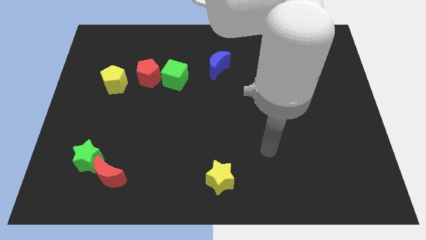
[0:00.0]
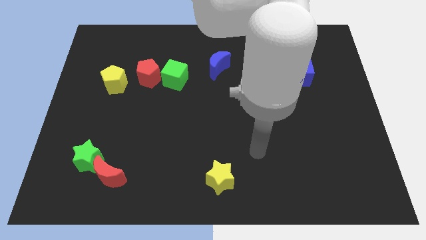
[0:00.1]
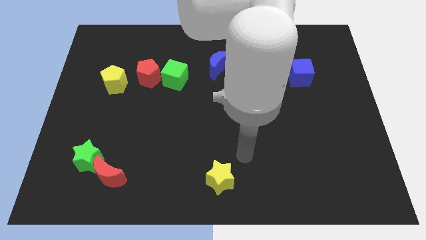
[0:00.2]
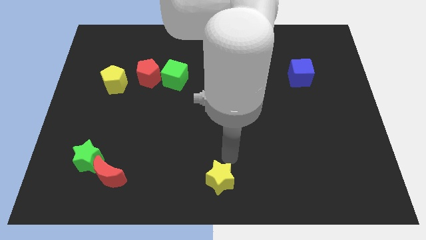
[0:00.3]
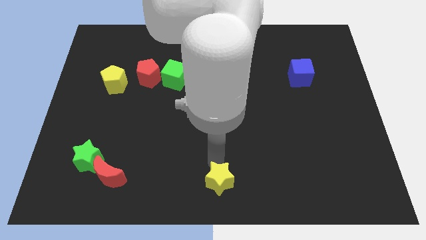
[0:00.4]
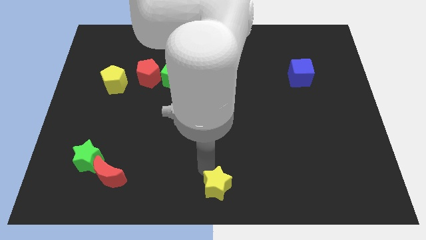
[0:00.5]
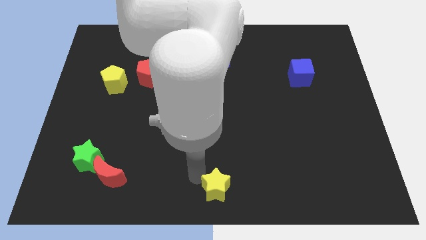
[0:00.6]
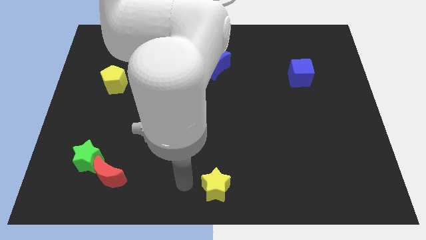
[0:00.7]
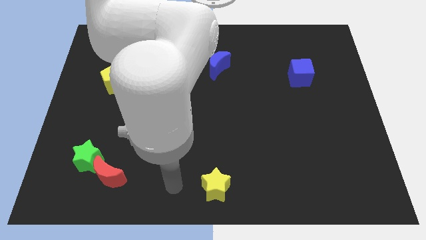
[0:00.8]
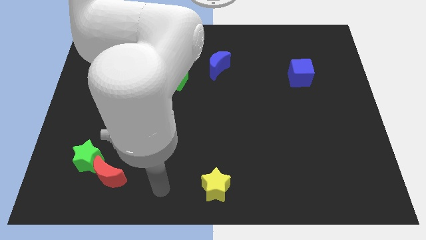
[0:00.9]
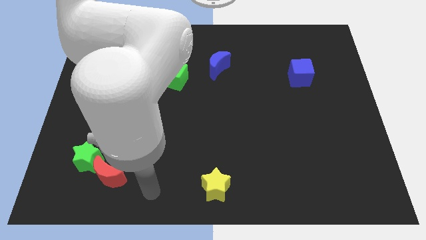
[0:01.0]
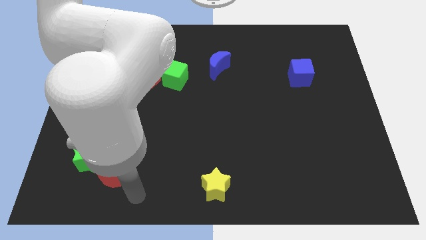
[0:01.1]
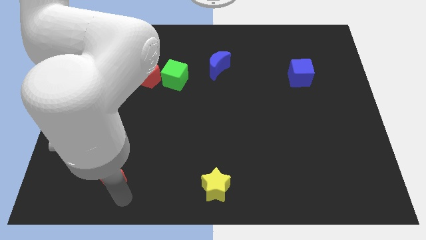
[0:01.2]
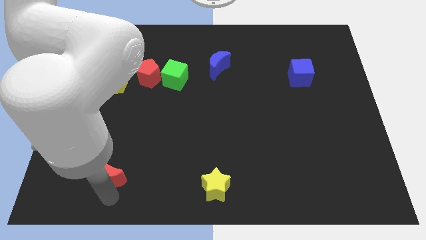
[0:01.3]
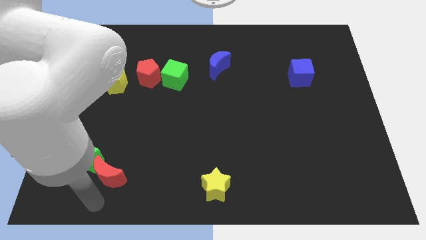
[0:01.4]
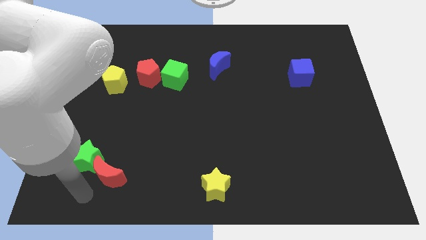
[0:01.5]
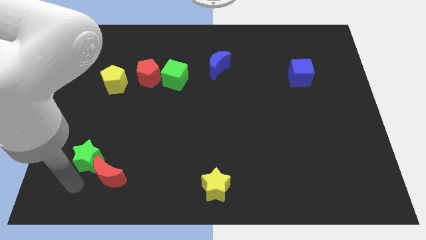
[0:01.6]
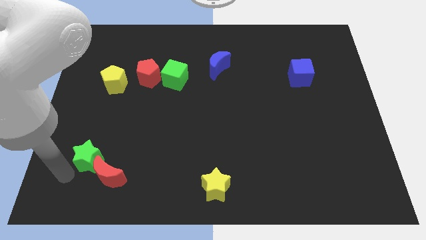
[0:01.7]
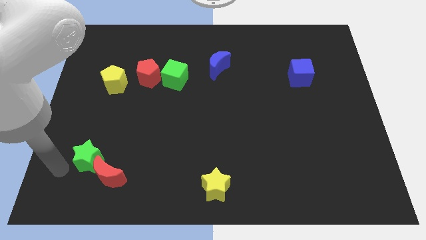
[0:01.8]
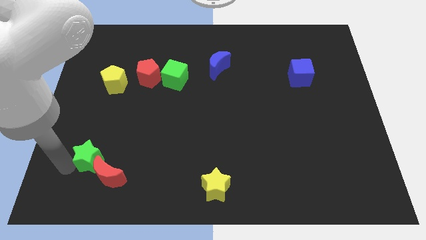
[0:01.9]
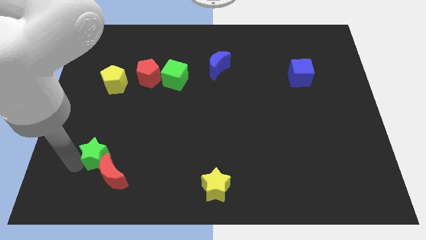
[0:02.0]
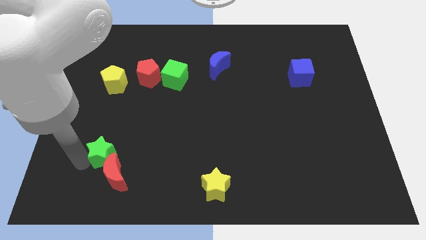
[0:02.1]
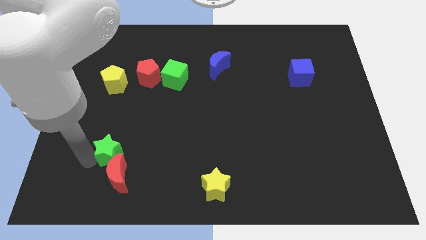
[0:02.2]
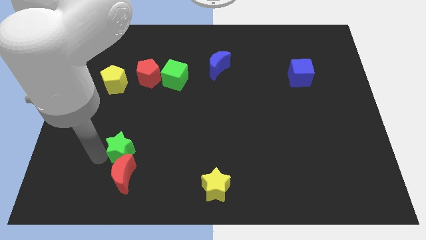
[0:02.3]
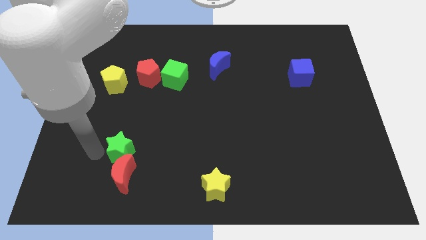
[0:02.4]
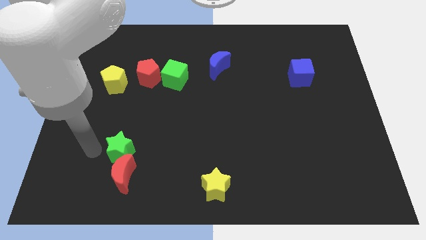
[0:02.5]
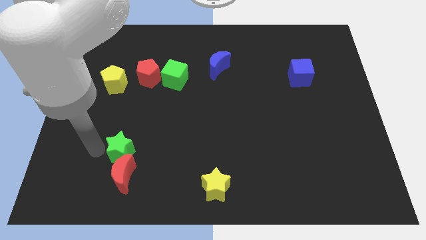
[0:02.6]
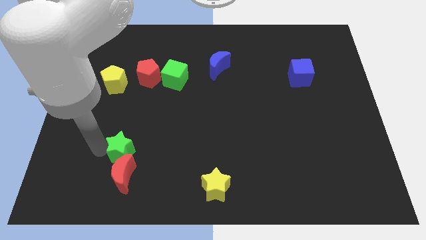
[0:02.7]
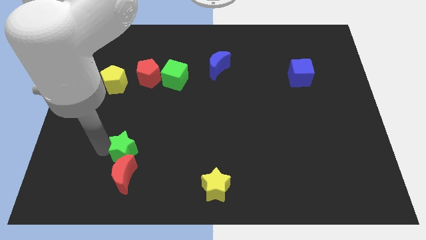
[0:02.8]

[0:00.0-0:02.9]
slide the green star to the right a little

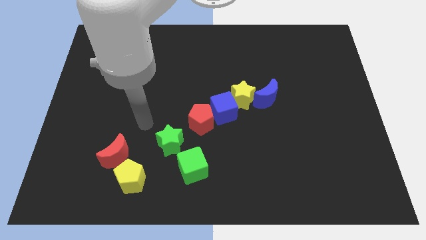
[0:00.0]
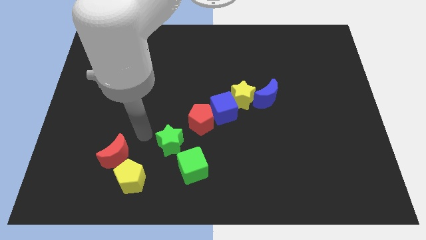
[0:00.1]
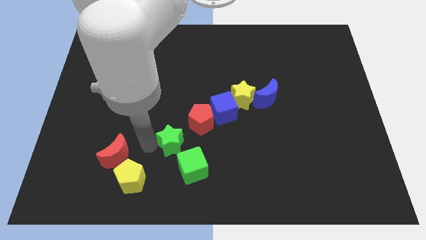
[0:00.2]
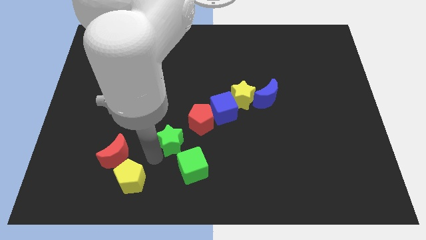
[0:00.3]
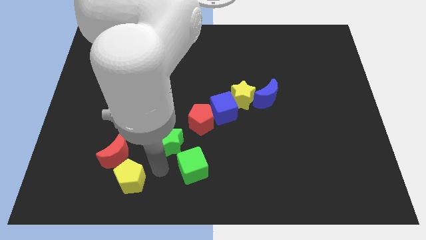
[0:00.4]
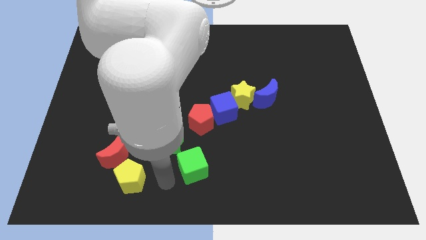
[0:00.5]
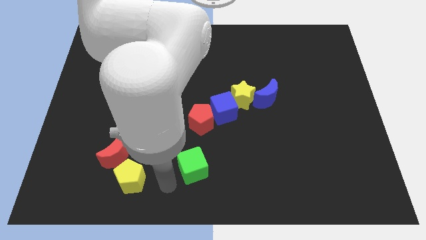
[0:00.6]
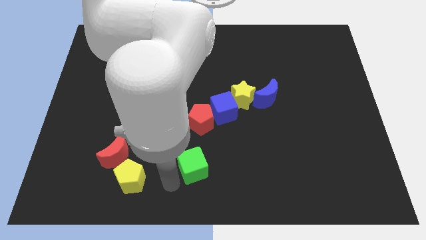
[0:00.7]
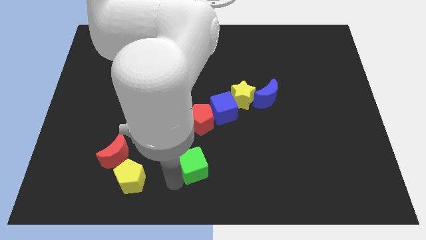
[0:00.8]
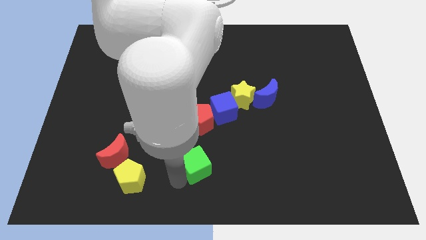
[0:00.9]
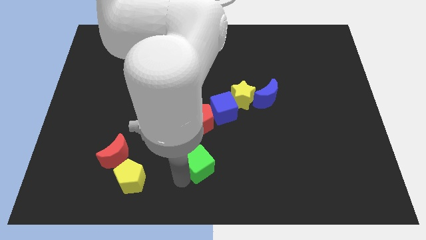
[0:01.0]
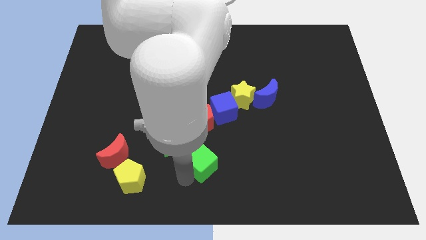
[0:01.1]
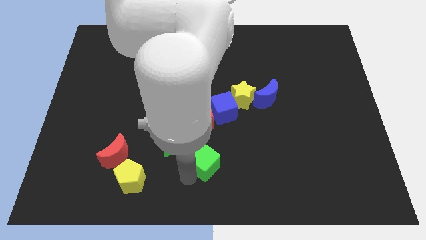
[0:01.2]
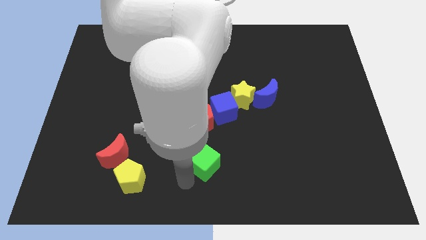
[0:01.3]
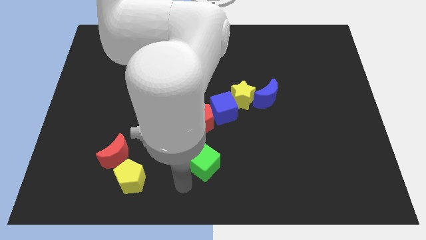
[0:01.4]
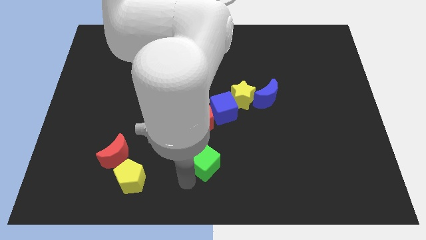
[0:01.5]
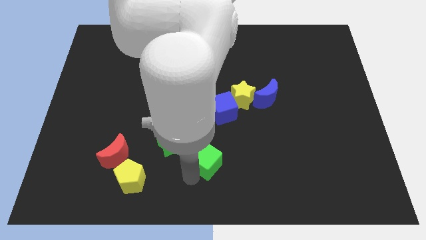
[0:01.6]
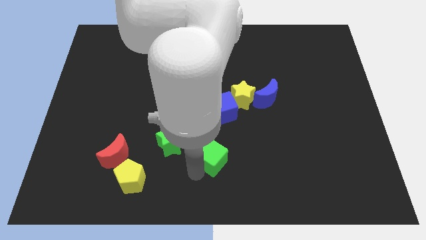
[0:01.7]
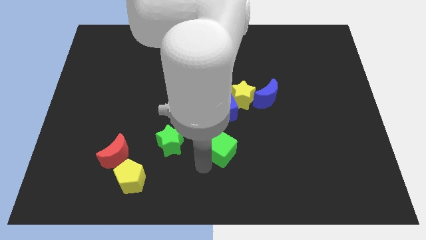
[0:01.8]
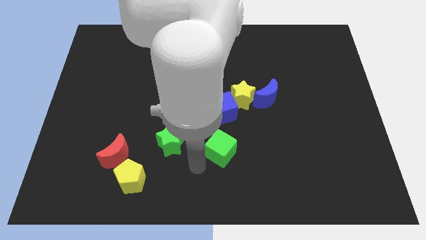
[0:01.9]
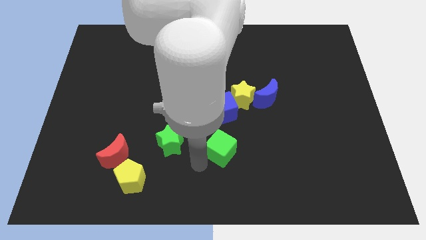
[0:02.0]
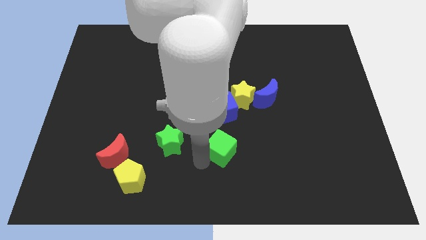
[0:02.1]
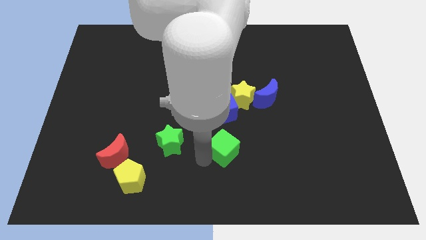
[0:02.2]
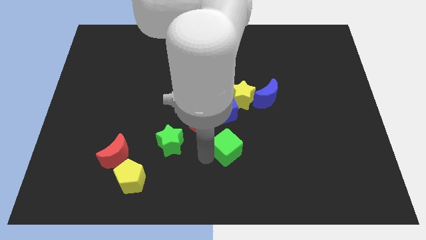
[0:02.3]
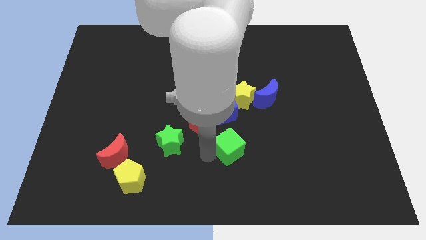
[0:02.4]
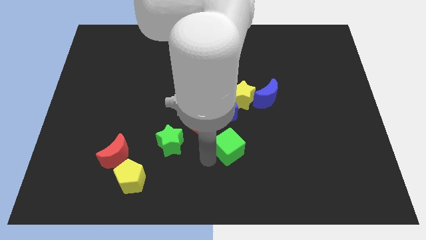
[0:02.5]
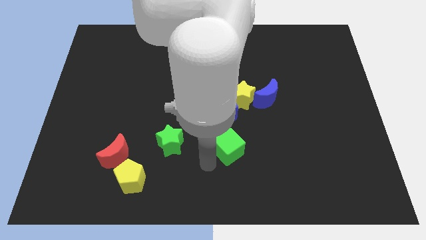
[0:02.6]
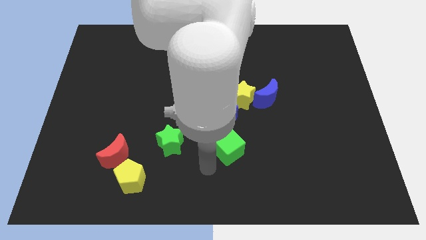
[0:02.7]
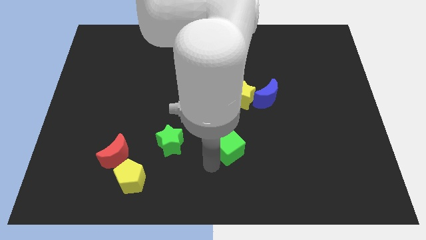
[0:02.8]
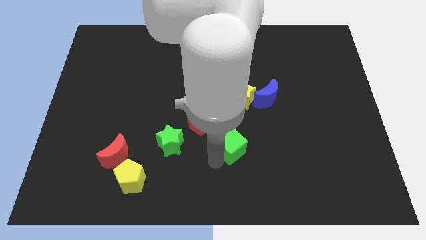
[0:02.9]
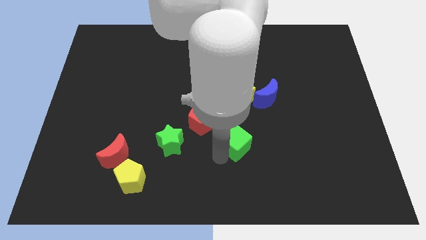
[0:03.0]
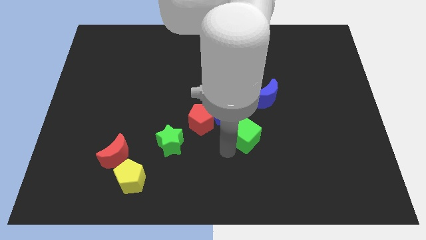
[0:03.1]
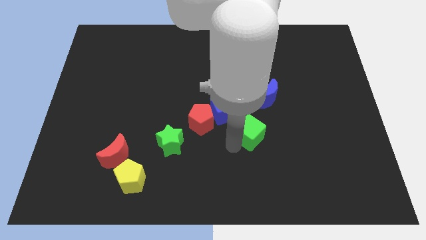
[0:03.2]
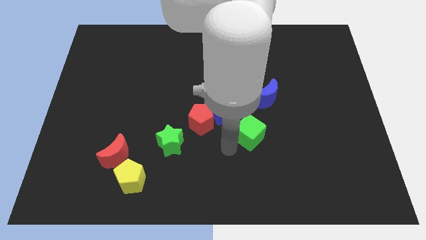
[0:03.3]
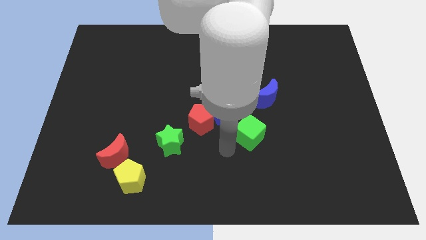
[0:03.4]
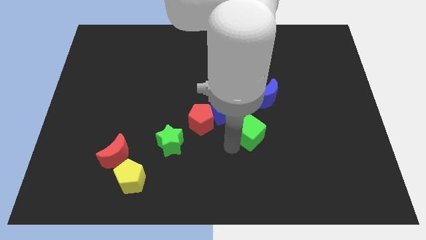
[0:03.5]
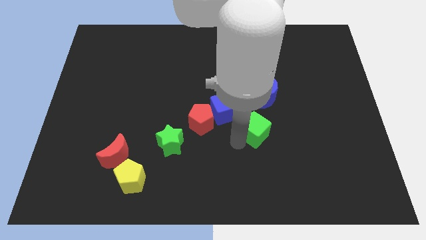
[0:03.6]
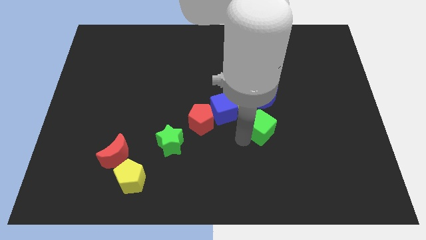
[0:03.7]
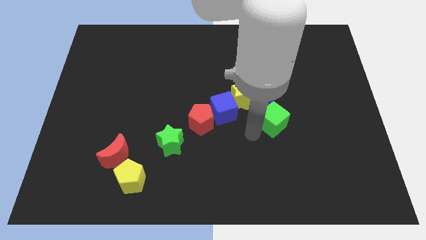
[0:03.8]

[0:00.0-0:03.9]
slide the green cube upwards and right

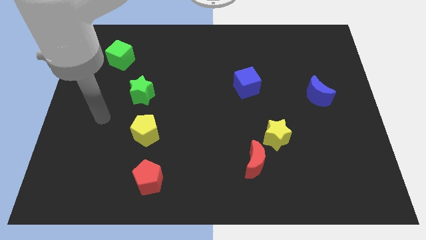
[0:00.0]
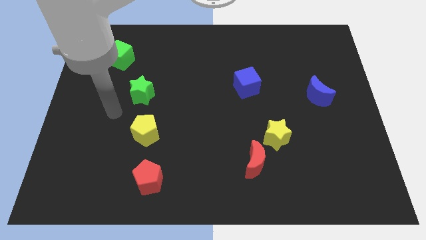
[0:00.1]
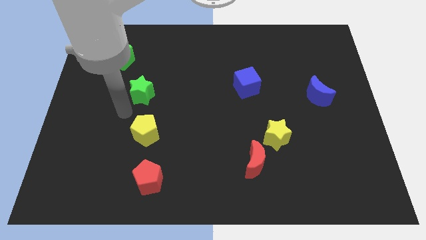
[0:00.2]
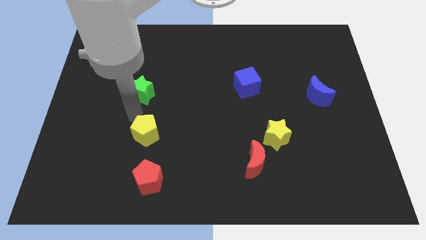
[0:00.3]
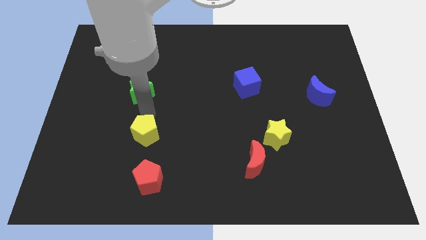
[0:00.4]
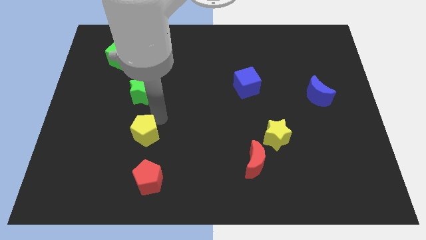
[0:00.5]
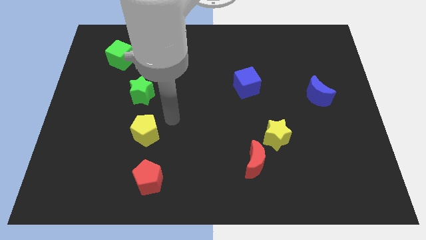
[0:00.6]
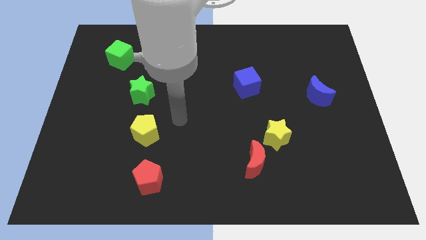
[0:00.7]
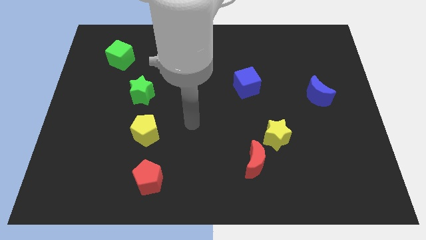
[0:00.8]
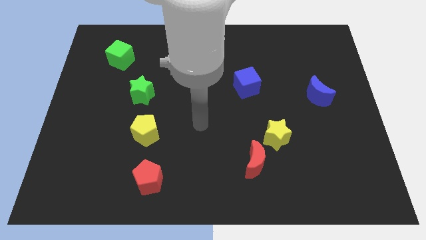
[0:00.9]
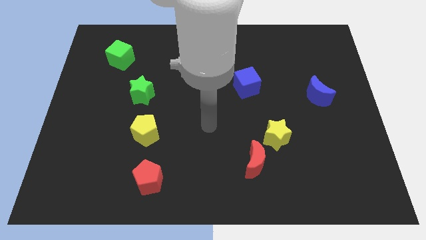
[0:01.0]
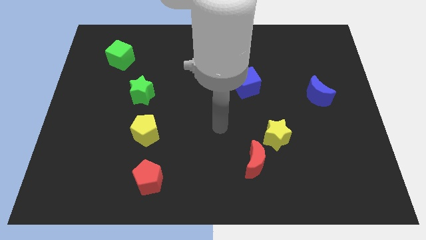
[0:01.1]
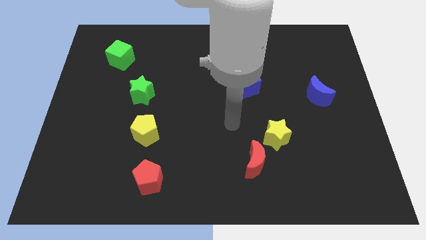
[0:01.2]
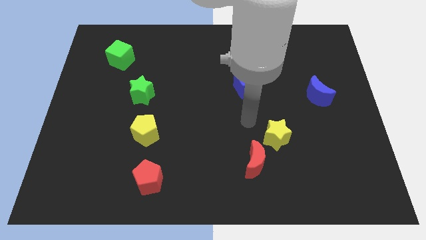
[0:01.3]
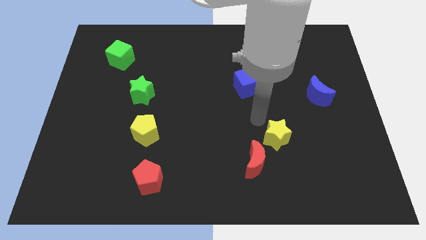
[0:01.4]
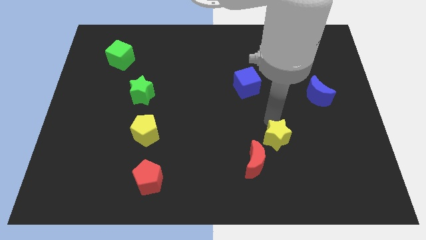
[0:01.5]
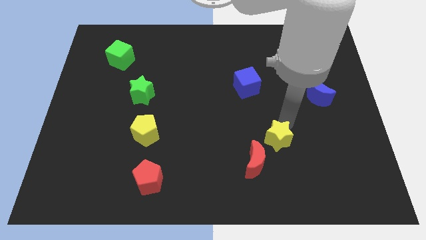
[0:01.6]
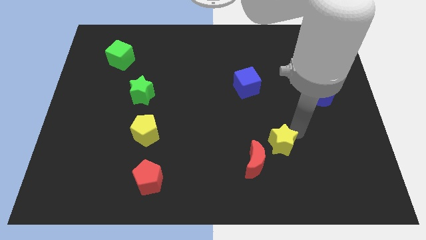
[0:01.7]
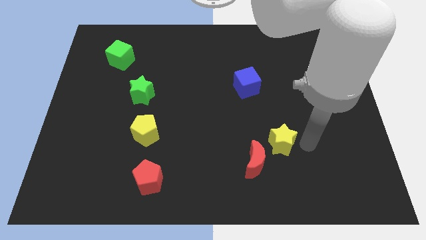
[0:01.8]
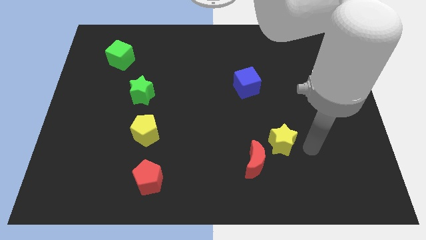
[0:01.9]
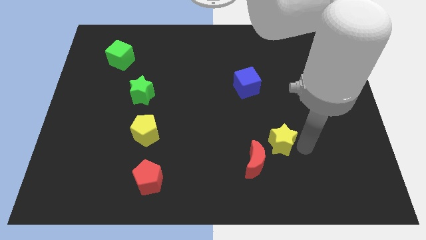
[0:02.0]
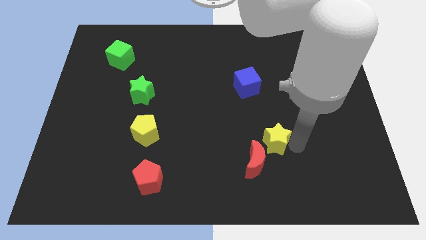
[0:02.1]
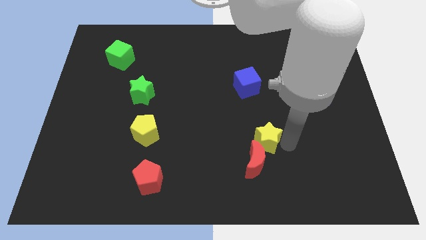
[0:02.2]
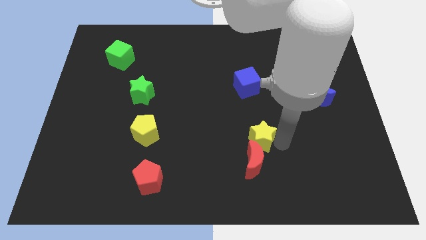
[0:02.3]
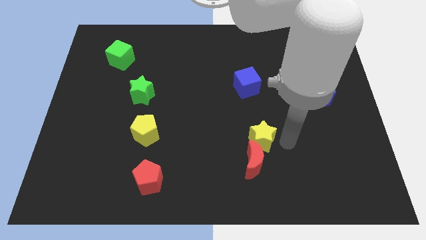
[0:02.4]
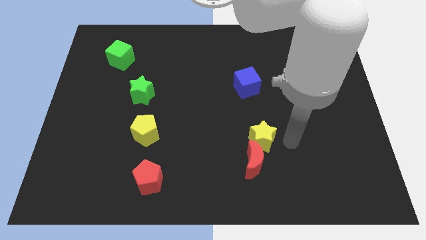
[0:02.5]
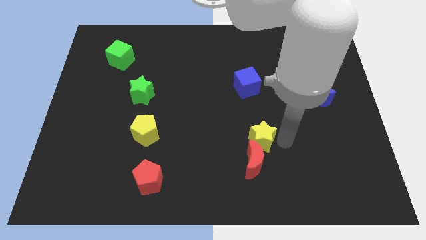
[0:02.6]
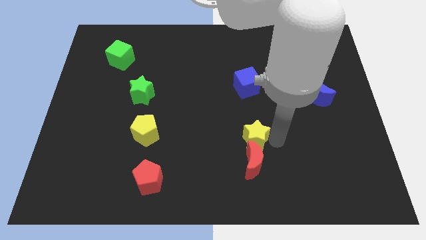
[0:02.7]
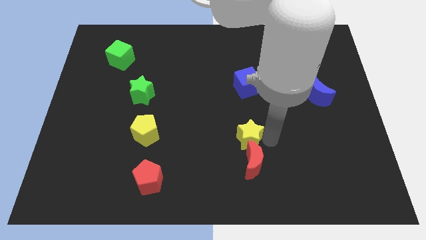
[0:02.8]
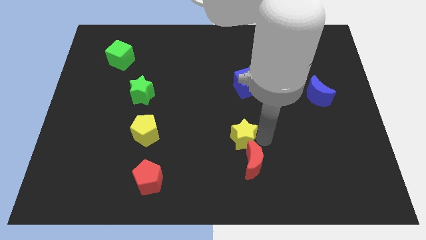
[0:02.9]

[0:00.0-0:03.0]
slightly push the yellow star to the left
